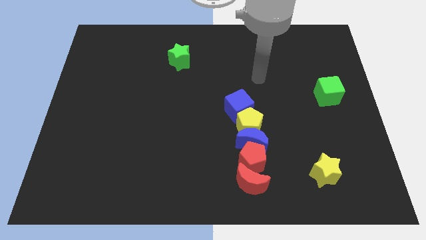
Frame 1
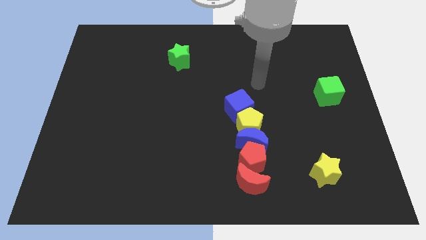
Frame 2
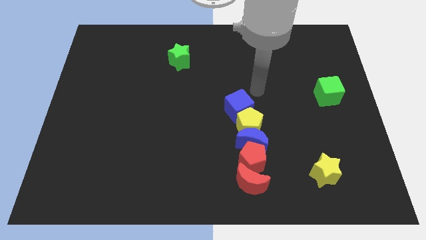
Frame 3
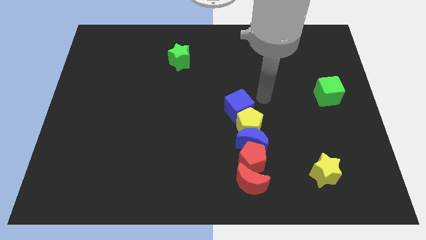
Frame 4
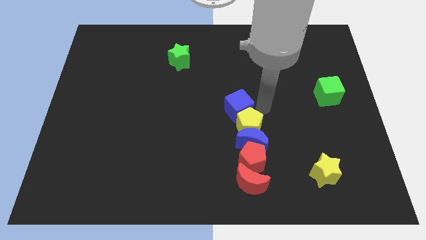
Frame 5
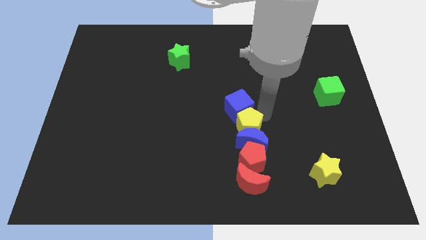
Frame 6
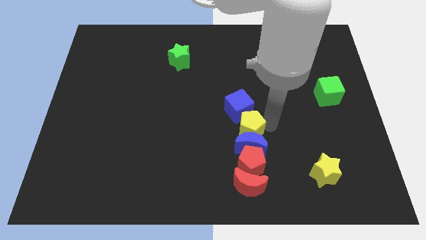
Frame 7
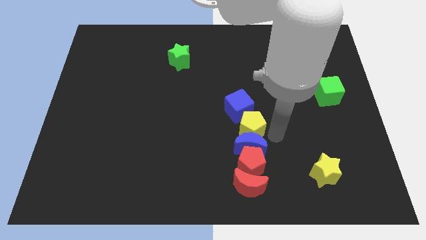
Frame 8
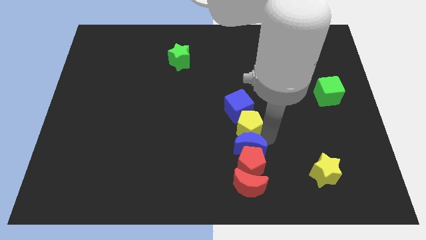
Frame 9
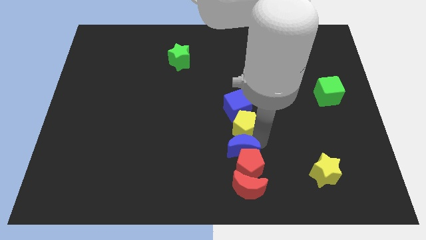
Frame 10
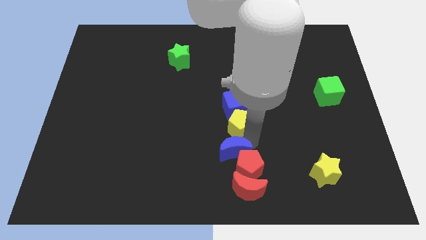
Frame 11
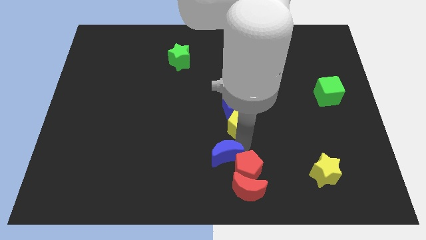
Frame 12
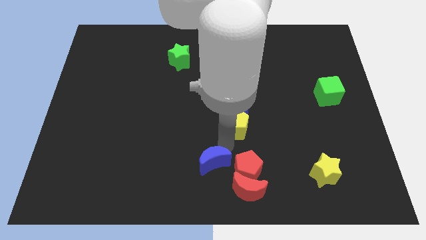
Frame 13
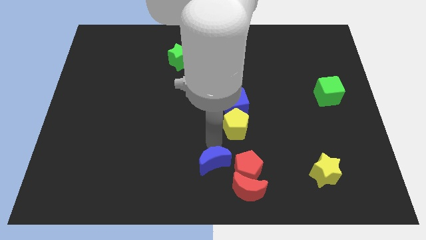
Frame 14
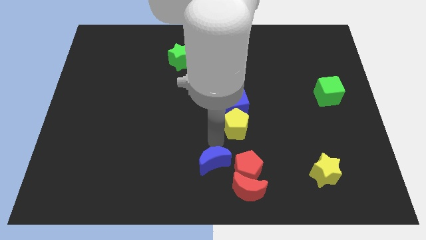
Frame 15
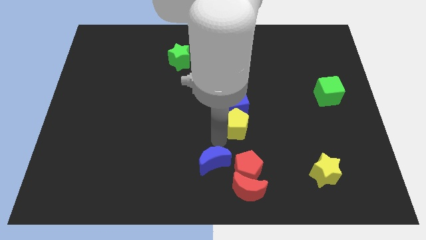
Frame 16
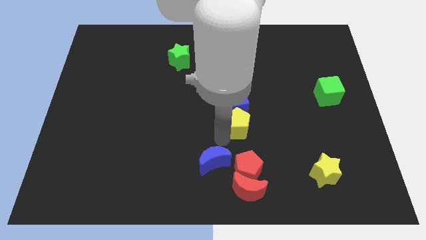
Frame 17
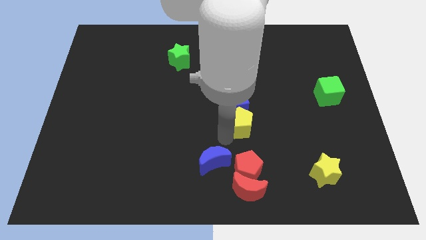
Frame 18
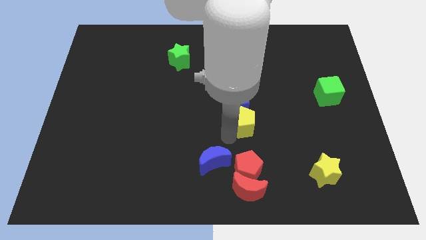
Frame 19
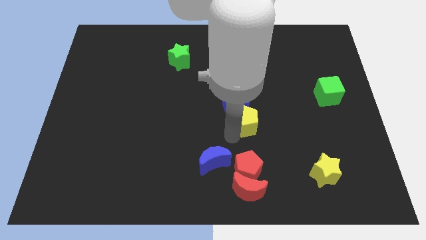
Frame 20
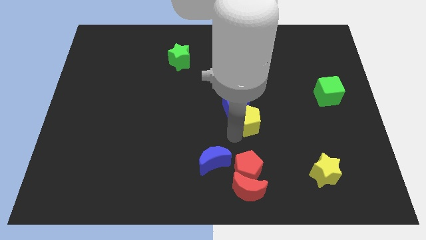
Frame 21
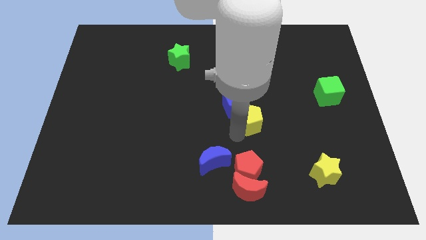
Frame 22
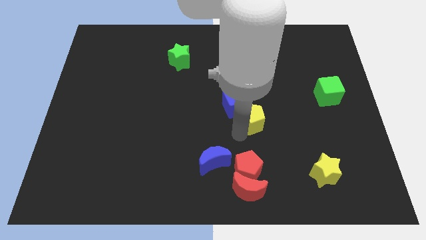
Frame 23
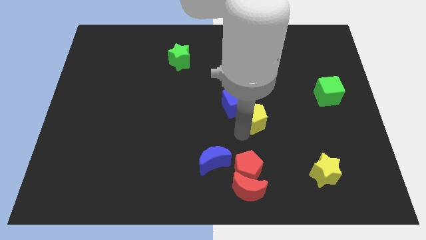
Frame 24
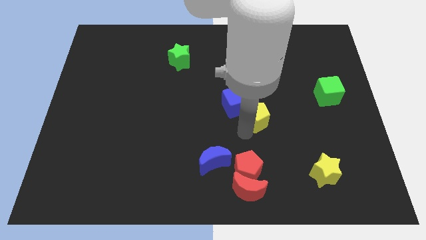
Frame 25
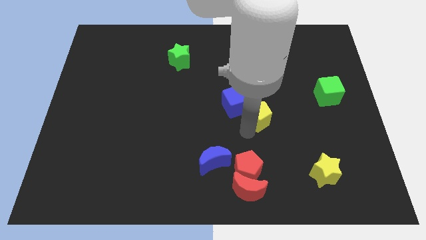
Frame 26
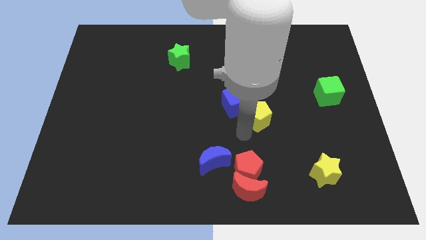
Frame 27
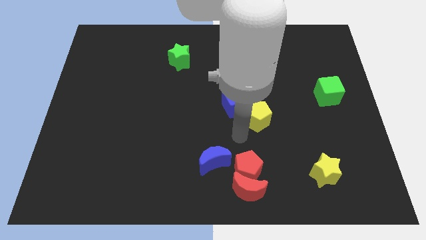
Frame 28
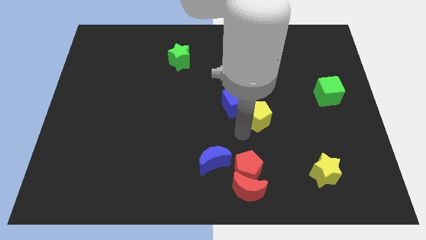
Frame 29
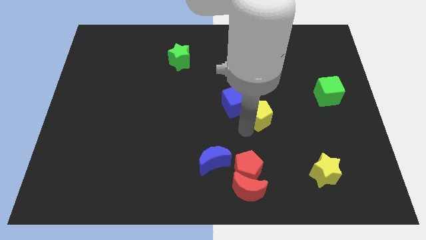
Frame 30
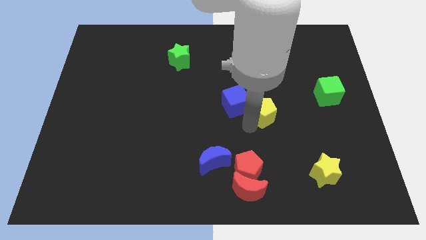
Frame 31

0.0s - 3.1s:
pull the yellow pentagon apart from the group of blocks

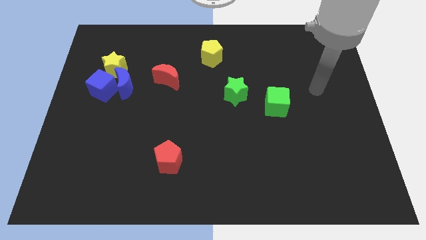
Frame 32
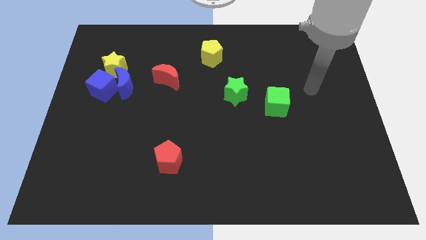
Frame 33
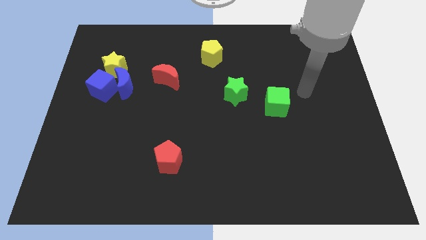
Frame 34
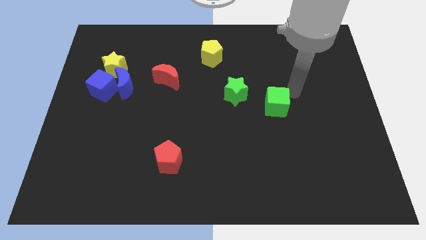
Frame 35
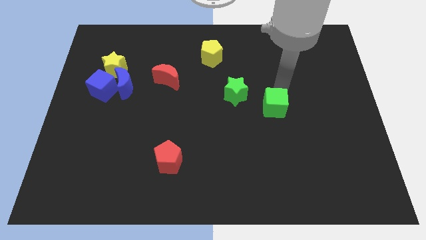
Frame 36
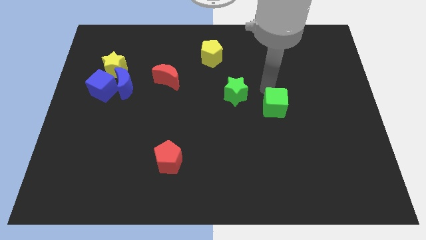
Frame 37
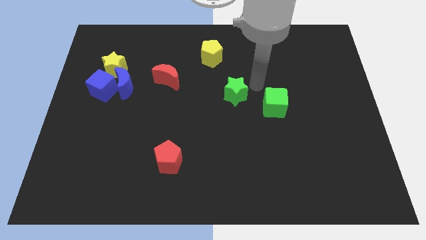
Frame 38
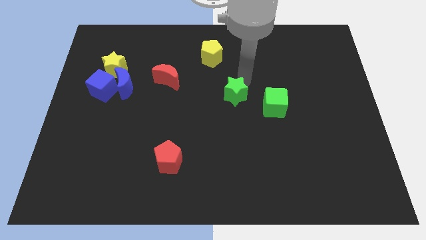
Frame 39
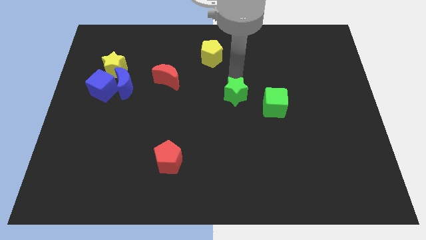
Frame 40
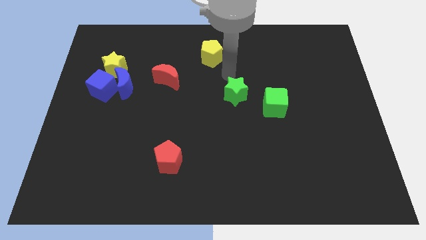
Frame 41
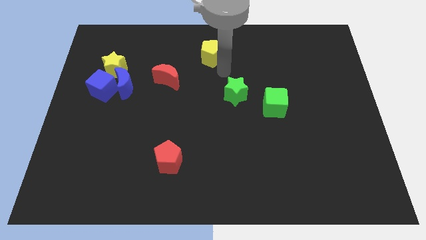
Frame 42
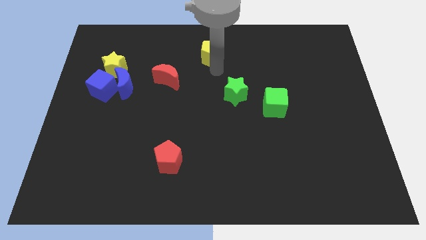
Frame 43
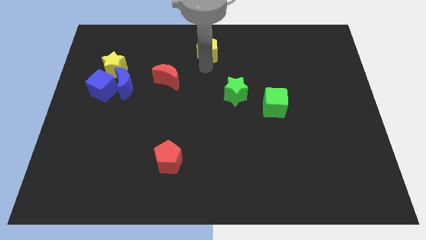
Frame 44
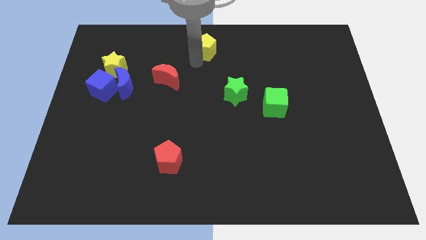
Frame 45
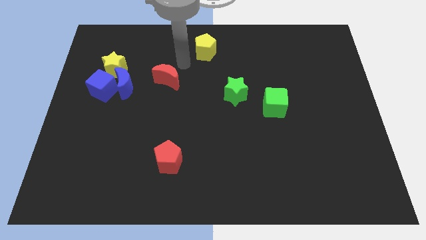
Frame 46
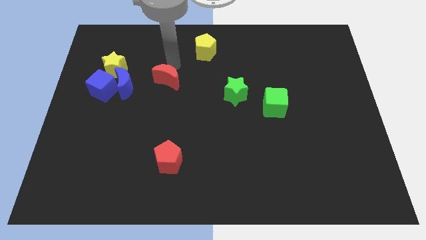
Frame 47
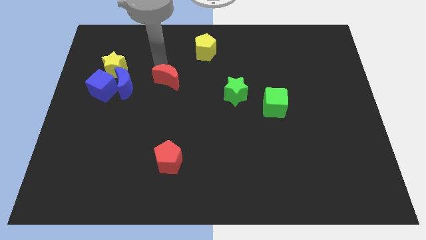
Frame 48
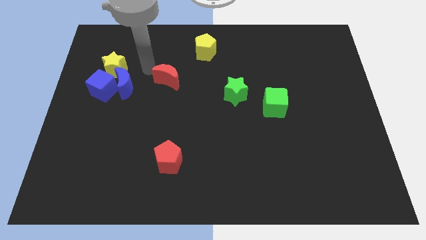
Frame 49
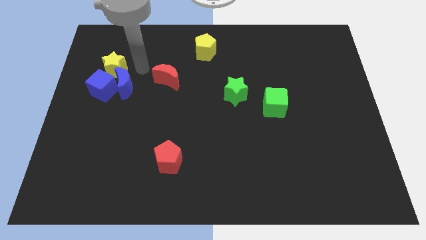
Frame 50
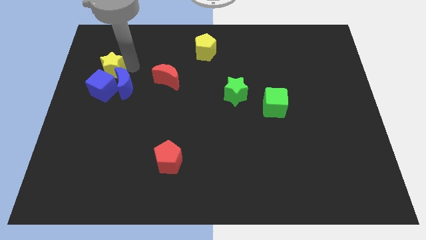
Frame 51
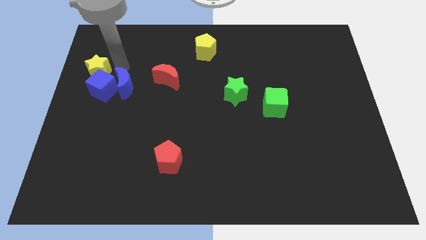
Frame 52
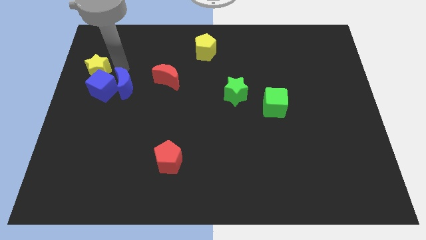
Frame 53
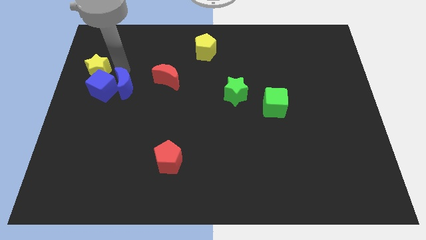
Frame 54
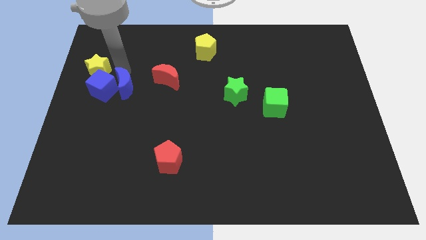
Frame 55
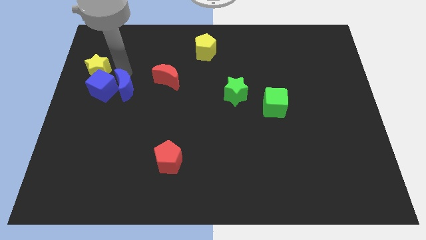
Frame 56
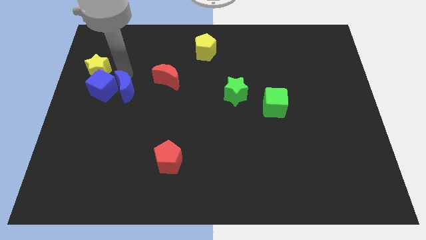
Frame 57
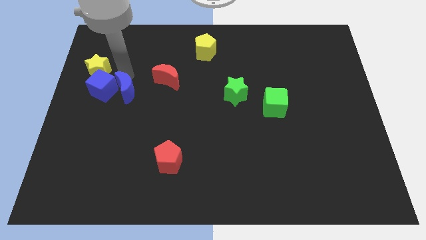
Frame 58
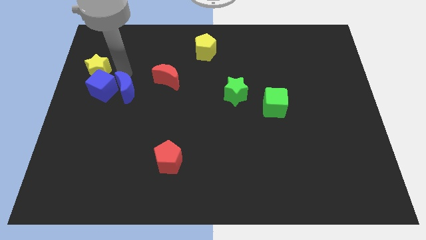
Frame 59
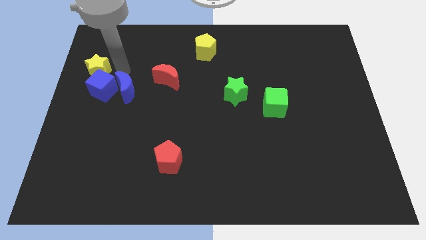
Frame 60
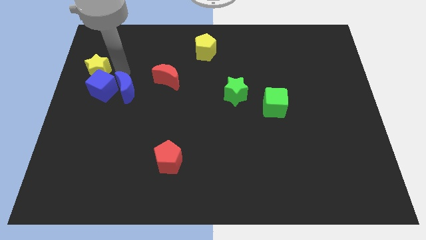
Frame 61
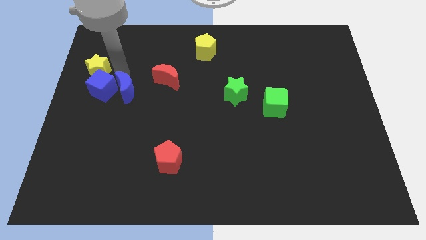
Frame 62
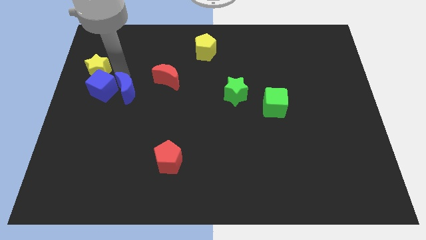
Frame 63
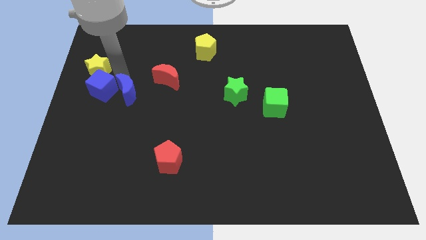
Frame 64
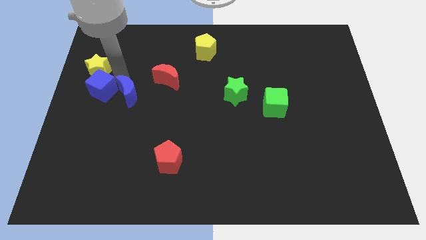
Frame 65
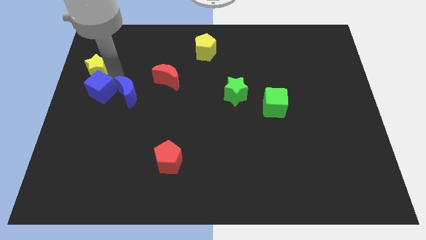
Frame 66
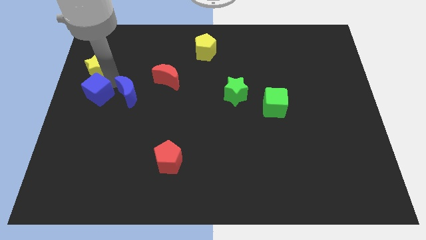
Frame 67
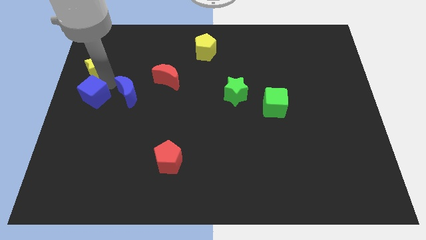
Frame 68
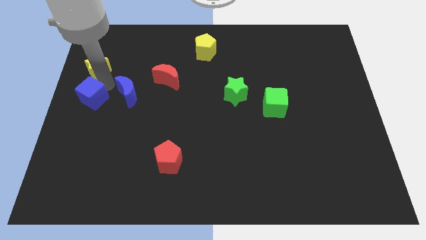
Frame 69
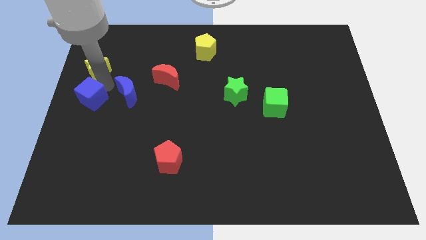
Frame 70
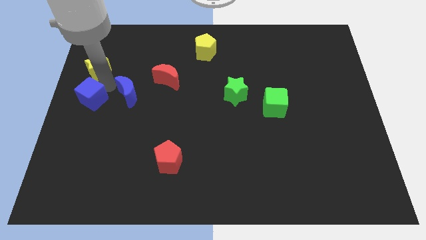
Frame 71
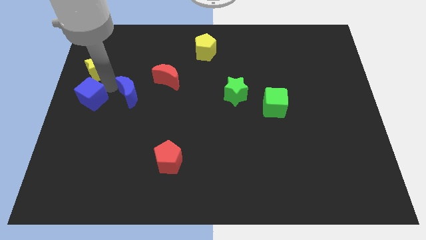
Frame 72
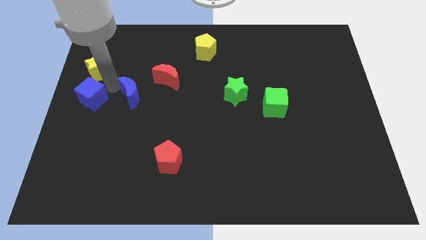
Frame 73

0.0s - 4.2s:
pull the blue moon apart from the blue cube and yellow star

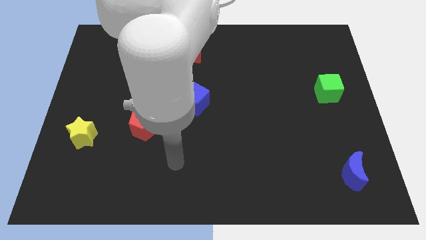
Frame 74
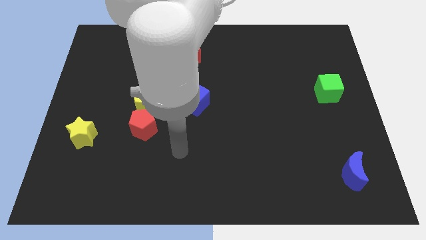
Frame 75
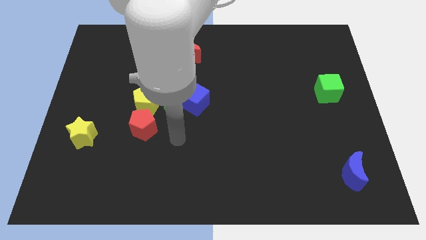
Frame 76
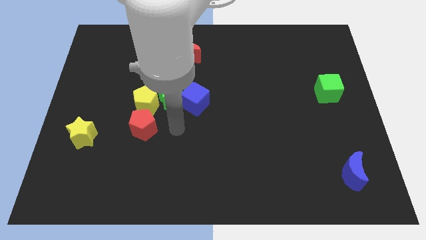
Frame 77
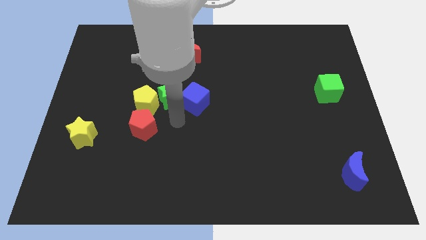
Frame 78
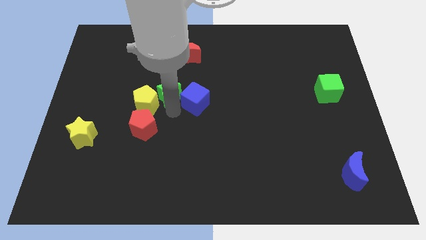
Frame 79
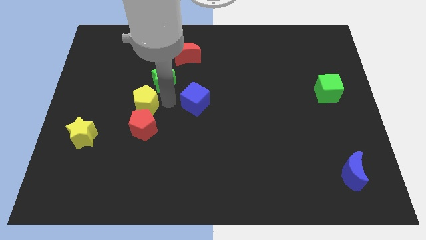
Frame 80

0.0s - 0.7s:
pull the blue cube apart from the green star

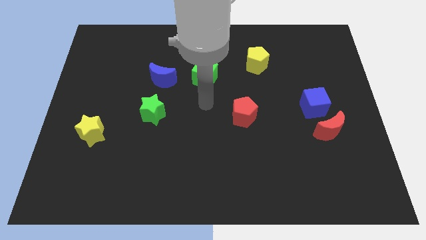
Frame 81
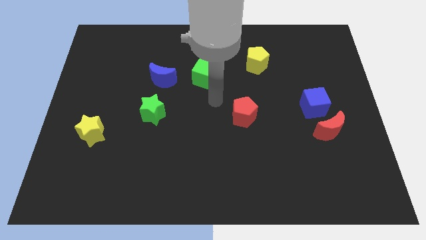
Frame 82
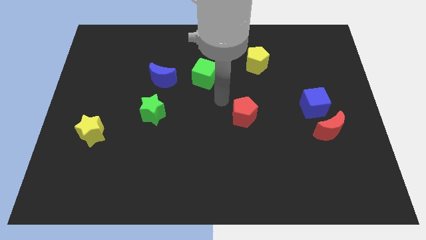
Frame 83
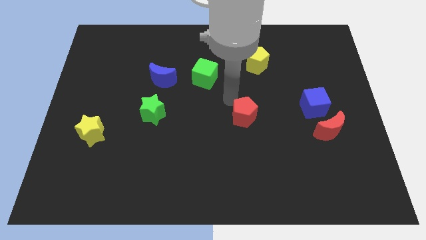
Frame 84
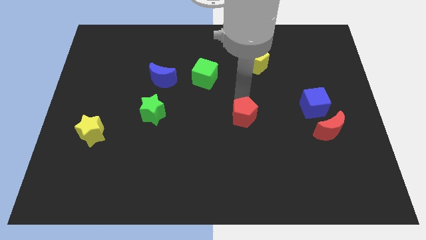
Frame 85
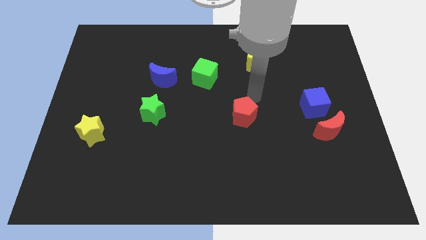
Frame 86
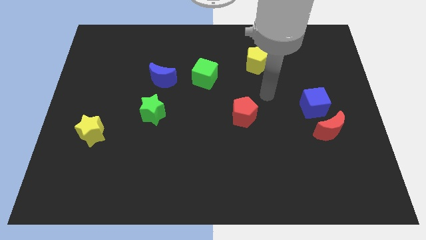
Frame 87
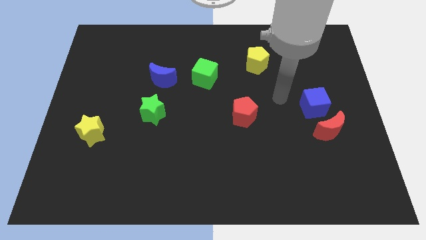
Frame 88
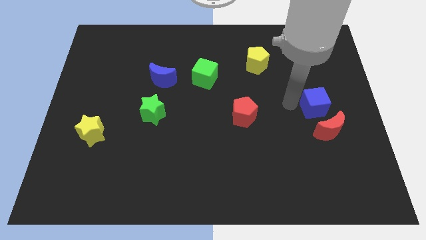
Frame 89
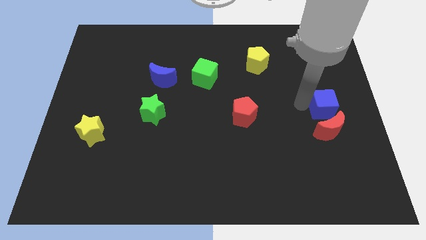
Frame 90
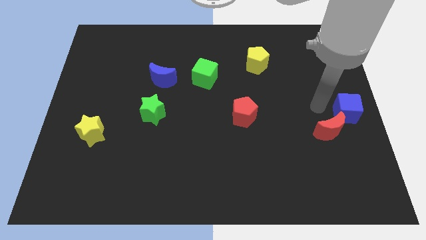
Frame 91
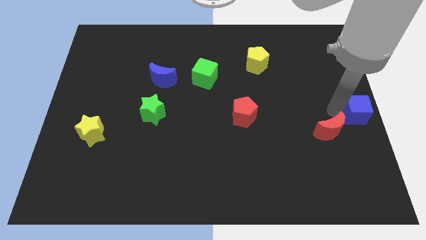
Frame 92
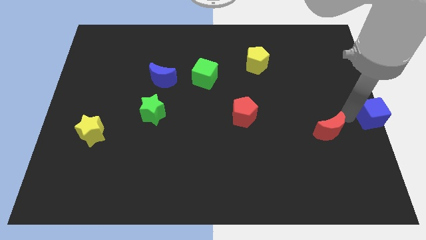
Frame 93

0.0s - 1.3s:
separate the red moon from the blue cube
